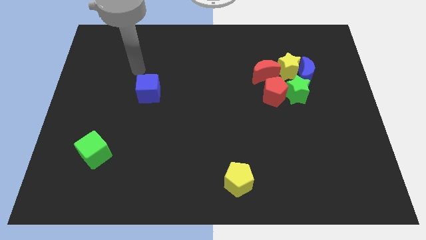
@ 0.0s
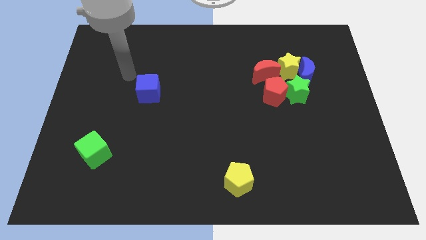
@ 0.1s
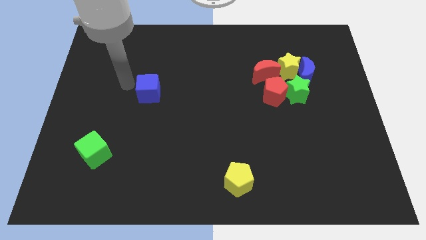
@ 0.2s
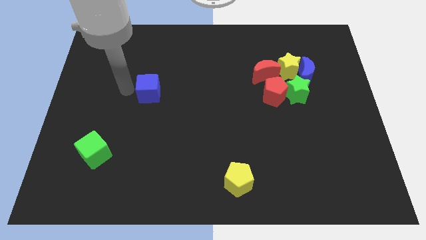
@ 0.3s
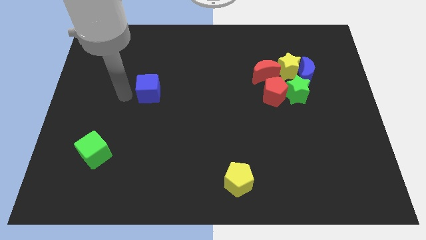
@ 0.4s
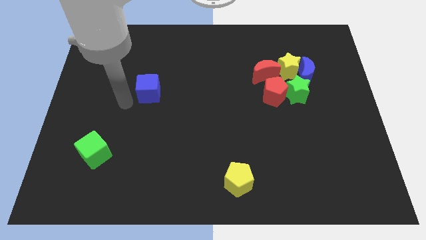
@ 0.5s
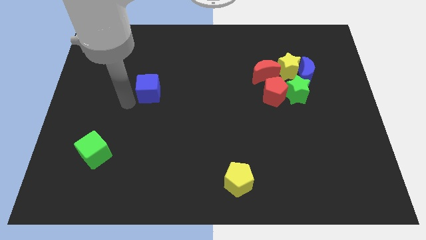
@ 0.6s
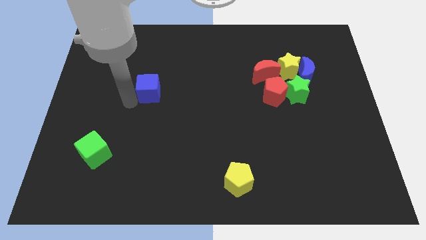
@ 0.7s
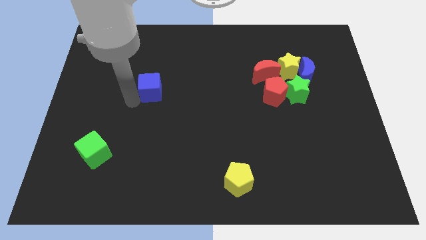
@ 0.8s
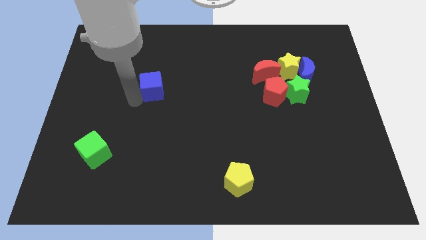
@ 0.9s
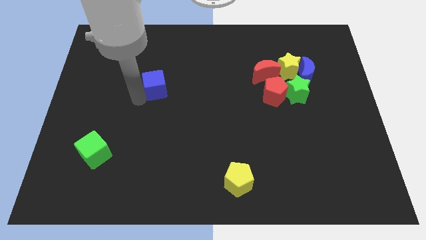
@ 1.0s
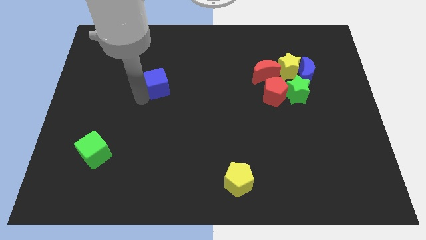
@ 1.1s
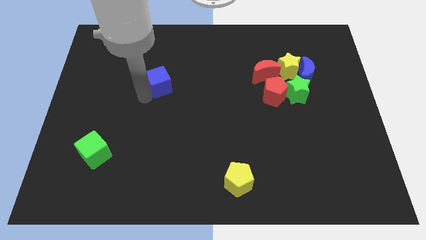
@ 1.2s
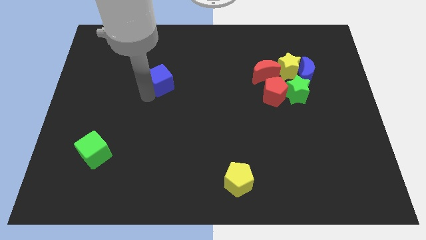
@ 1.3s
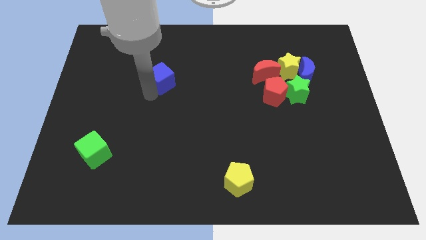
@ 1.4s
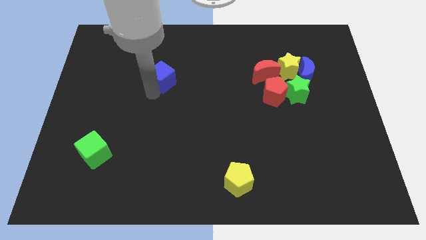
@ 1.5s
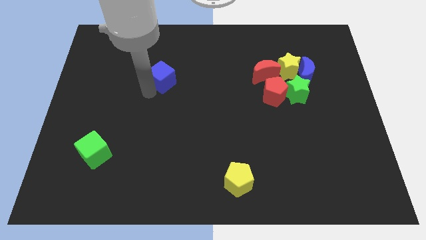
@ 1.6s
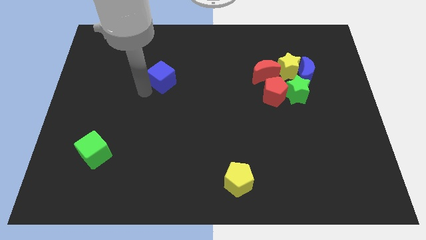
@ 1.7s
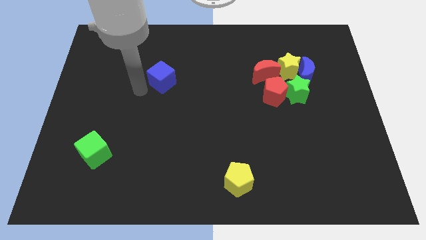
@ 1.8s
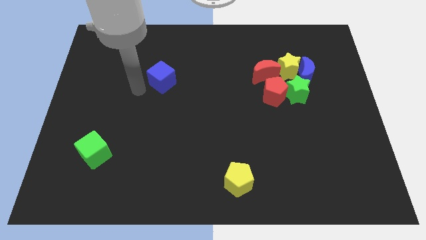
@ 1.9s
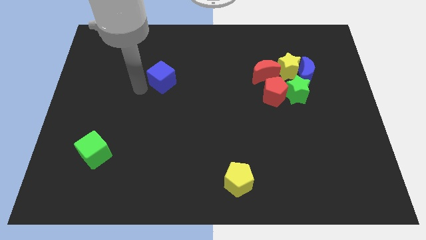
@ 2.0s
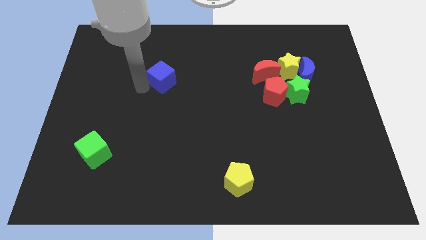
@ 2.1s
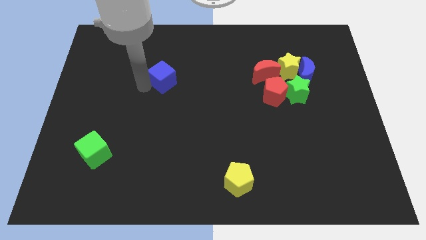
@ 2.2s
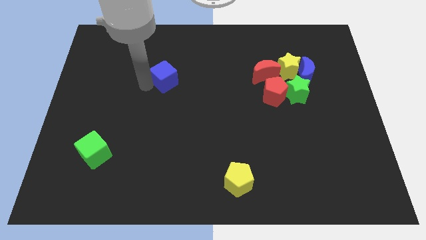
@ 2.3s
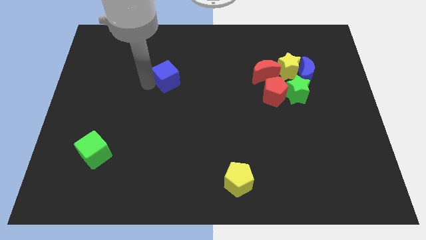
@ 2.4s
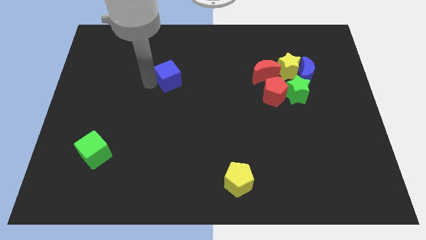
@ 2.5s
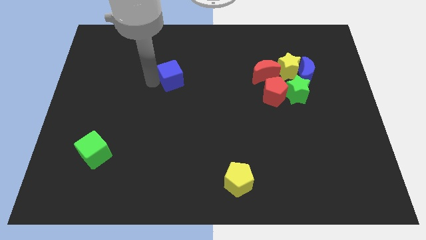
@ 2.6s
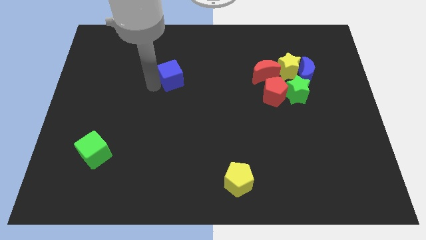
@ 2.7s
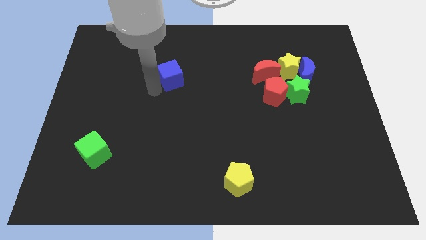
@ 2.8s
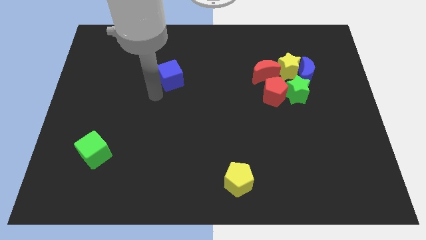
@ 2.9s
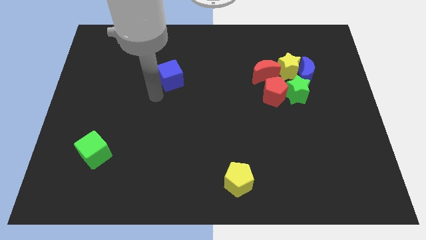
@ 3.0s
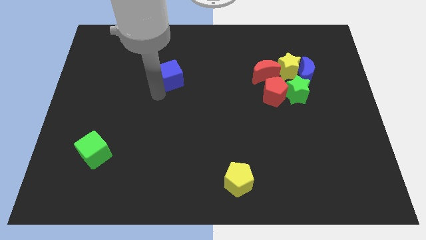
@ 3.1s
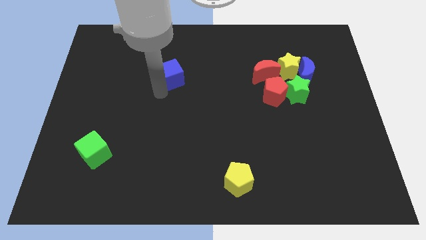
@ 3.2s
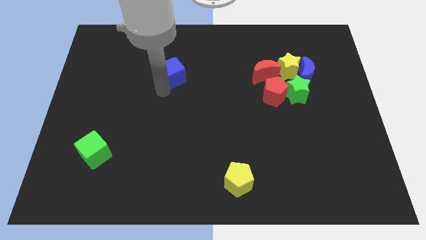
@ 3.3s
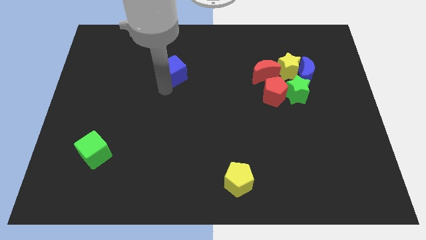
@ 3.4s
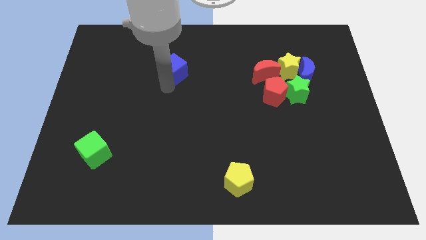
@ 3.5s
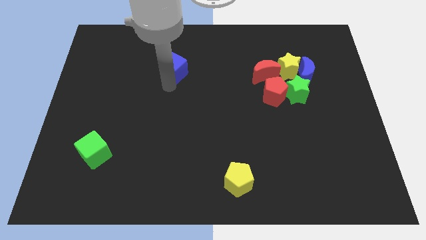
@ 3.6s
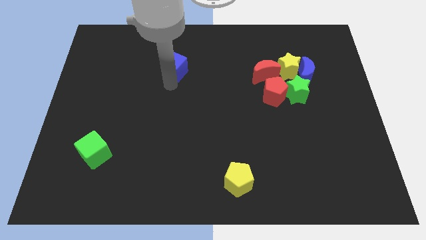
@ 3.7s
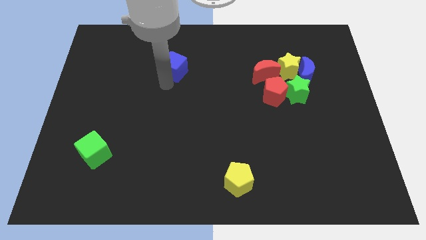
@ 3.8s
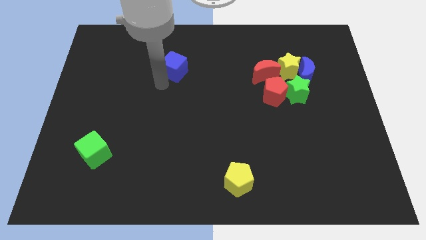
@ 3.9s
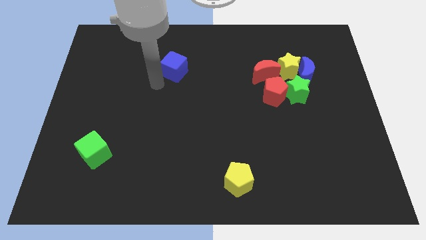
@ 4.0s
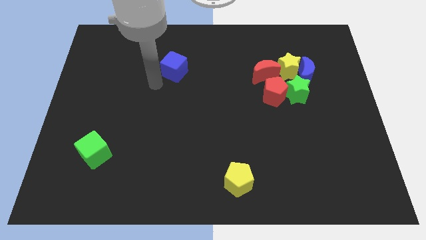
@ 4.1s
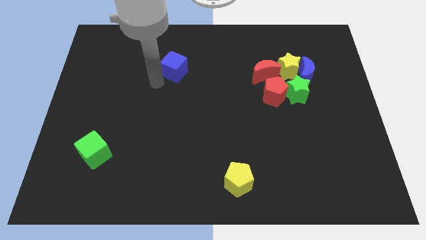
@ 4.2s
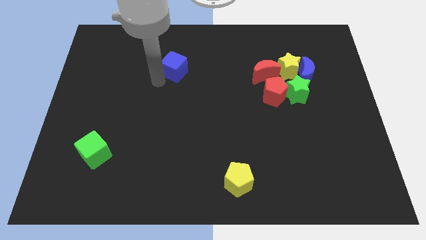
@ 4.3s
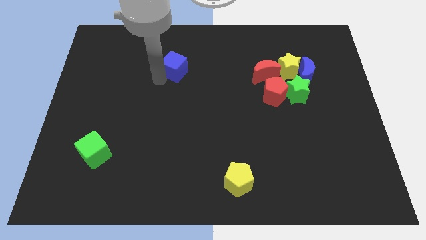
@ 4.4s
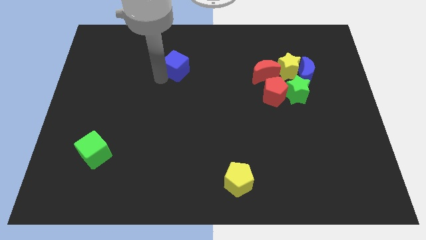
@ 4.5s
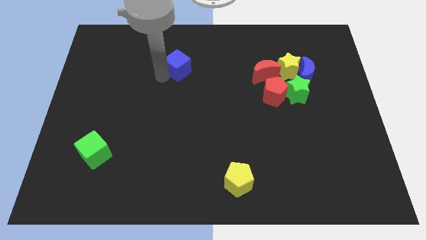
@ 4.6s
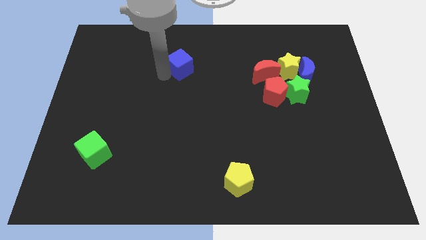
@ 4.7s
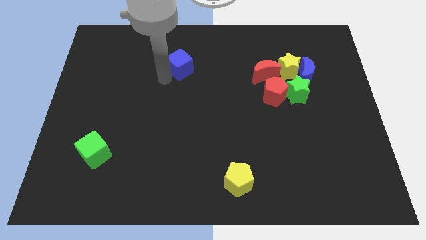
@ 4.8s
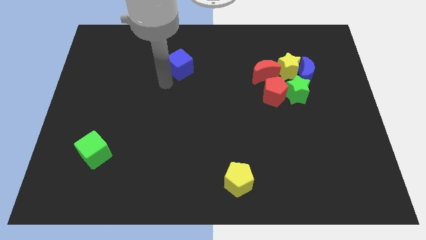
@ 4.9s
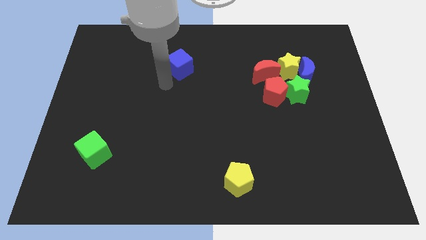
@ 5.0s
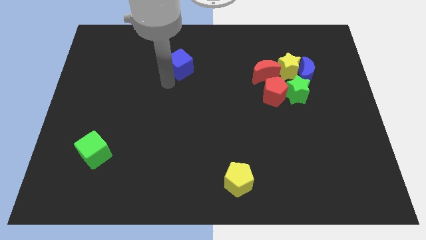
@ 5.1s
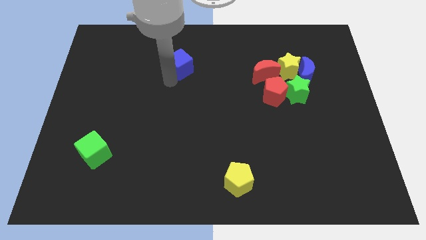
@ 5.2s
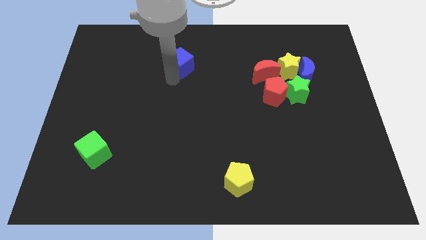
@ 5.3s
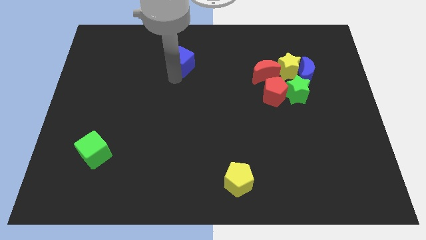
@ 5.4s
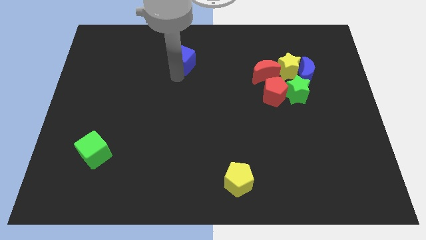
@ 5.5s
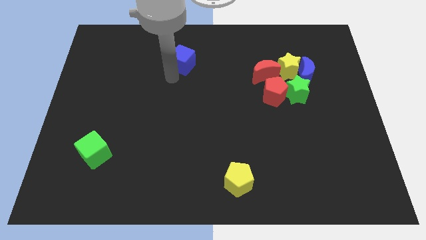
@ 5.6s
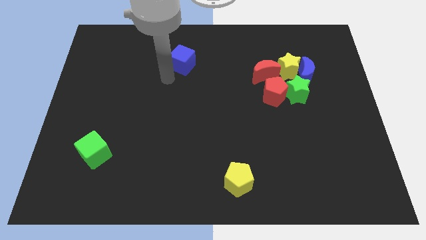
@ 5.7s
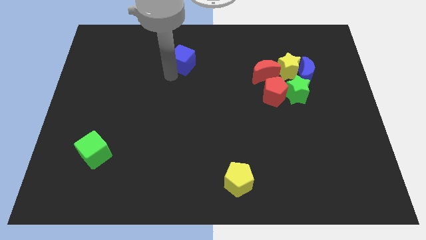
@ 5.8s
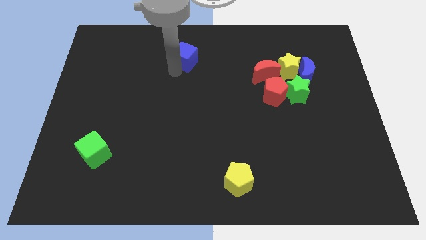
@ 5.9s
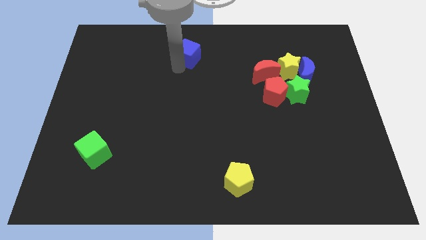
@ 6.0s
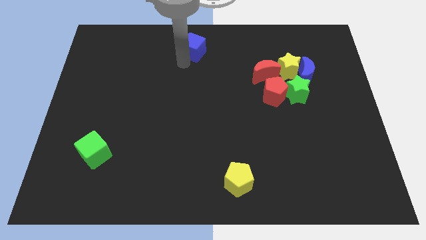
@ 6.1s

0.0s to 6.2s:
put the blue cube to the top
